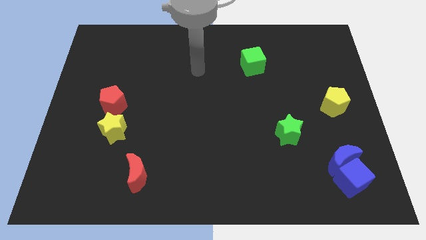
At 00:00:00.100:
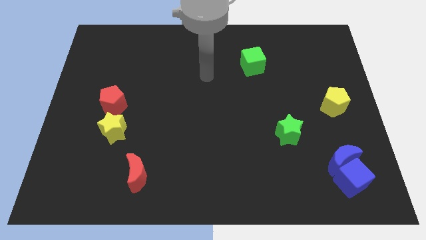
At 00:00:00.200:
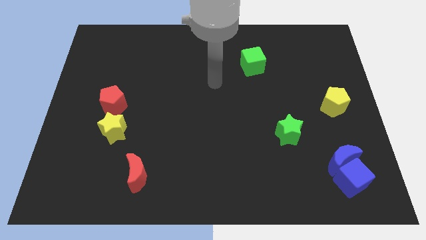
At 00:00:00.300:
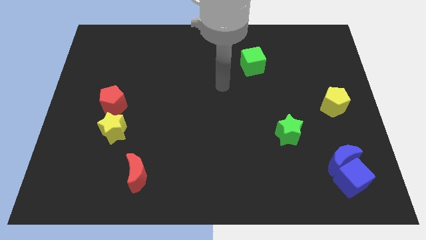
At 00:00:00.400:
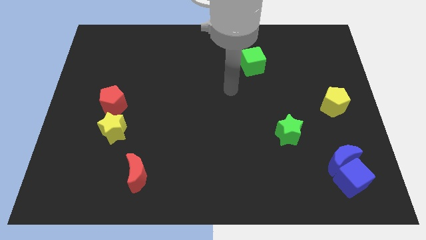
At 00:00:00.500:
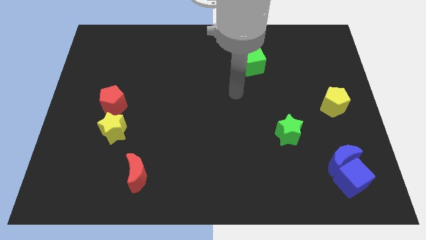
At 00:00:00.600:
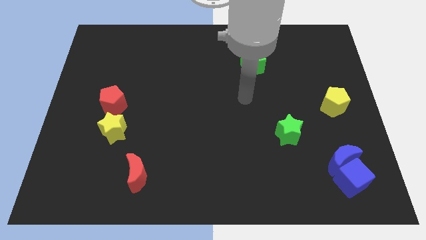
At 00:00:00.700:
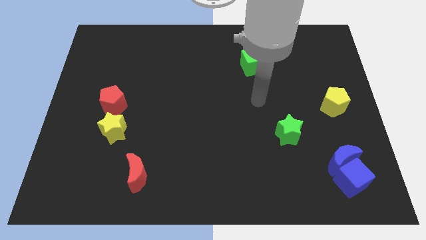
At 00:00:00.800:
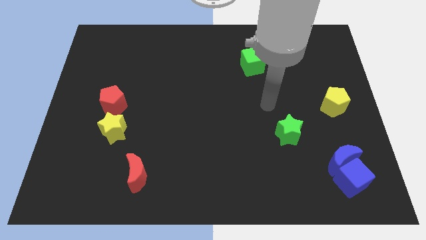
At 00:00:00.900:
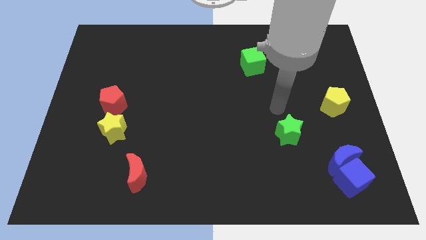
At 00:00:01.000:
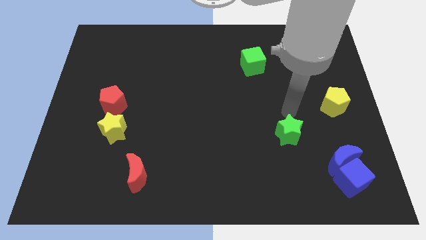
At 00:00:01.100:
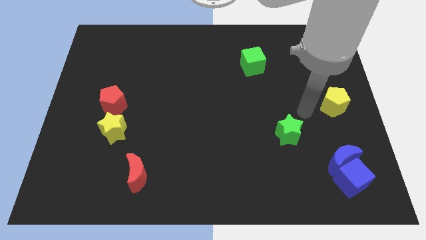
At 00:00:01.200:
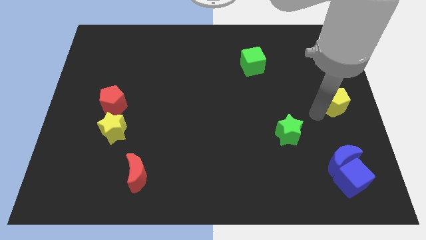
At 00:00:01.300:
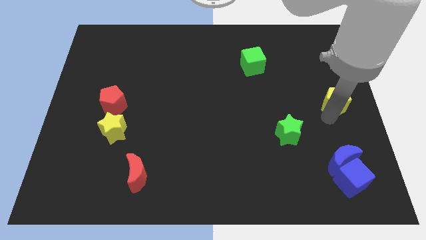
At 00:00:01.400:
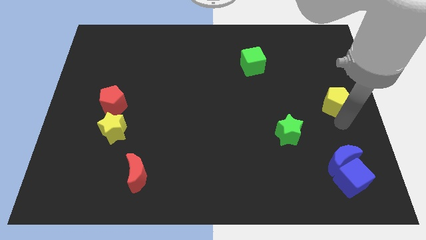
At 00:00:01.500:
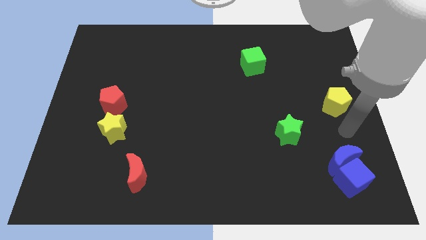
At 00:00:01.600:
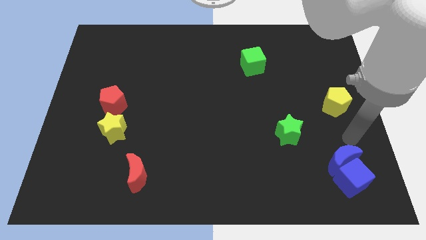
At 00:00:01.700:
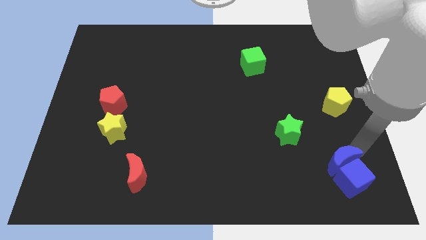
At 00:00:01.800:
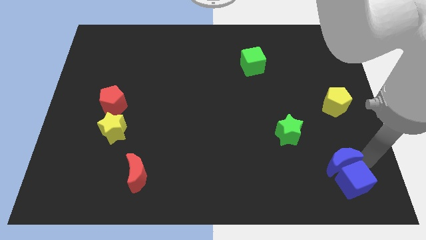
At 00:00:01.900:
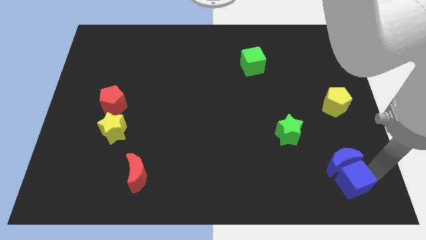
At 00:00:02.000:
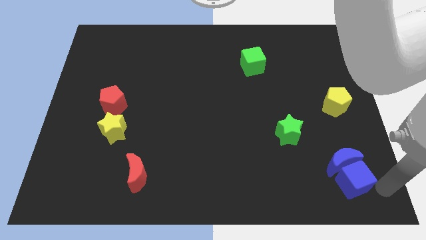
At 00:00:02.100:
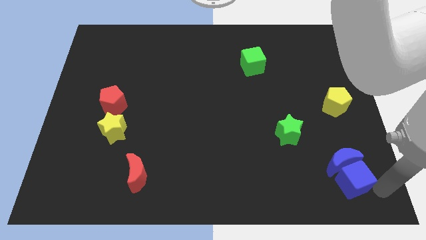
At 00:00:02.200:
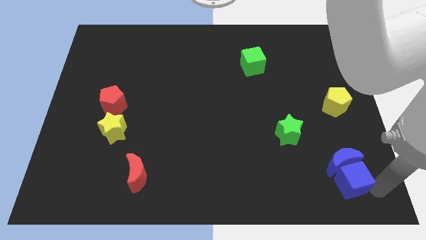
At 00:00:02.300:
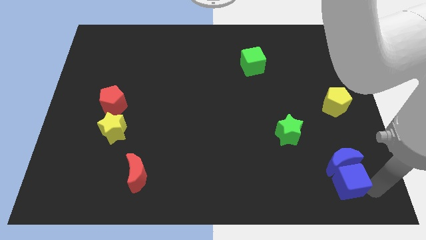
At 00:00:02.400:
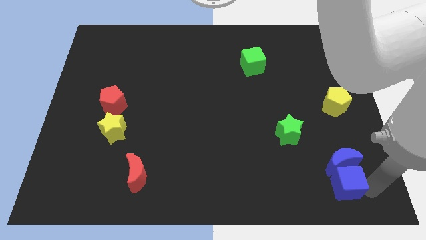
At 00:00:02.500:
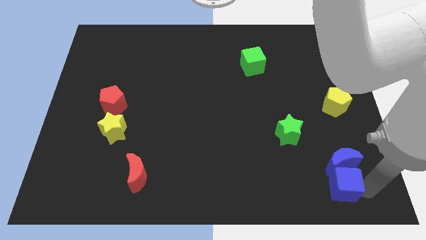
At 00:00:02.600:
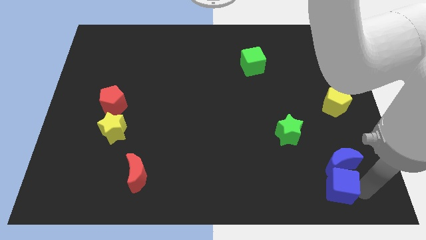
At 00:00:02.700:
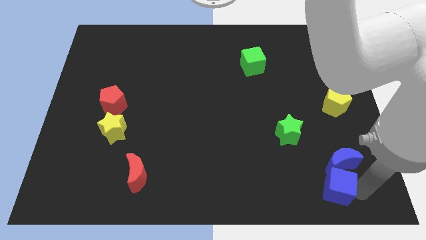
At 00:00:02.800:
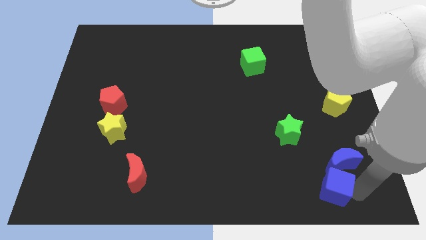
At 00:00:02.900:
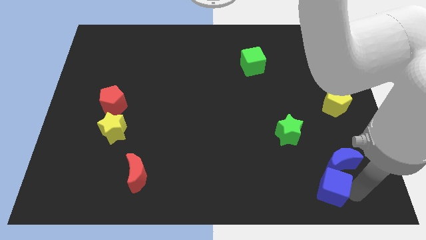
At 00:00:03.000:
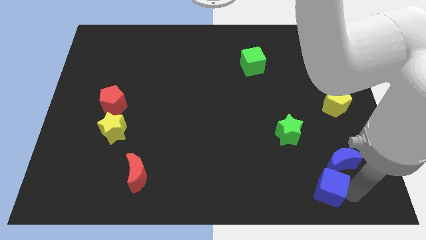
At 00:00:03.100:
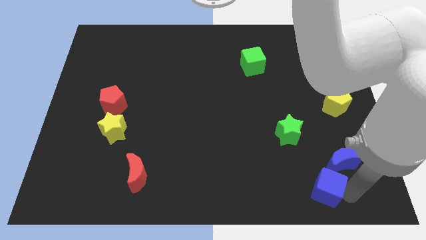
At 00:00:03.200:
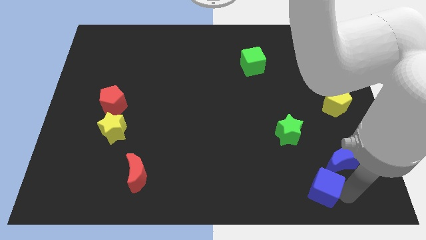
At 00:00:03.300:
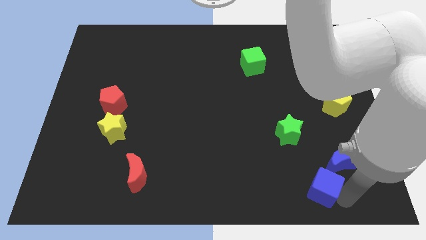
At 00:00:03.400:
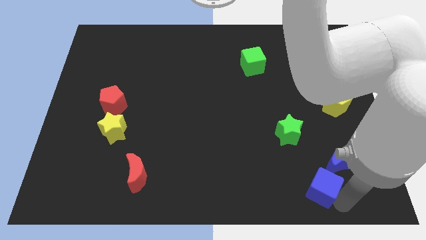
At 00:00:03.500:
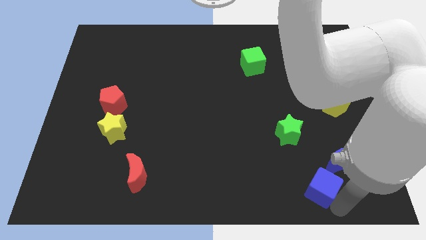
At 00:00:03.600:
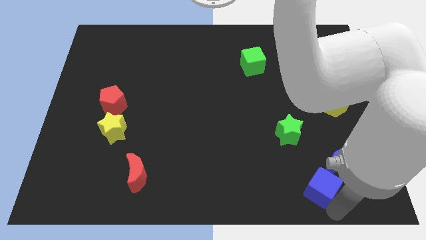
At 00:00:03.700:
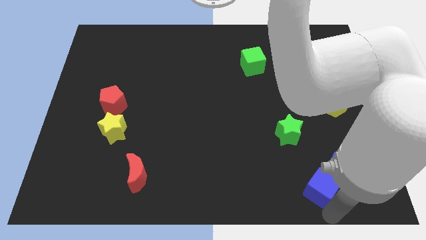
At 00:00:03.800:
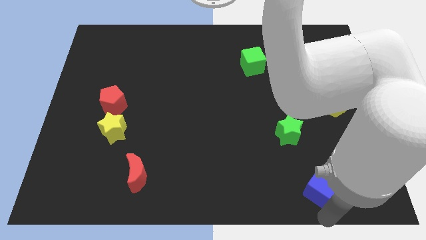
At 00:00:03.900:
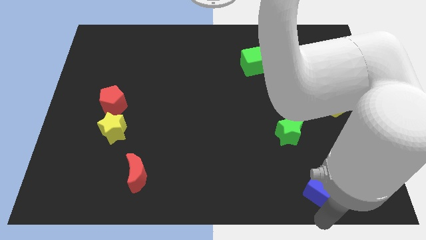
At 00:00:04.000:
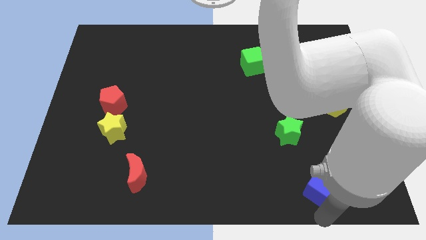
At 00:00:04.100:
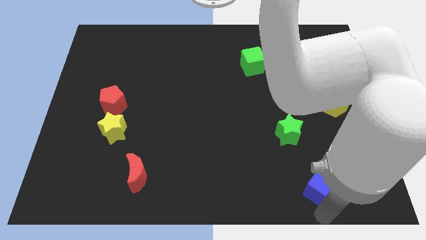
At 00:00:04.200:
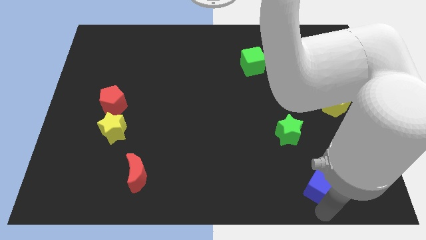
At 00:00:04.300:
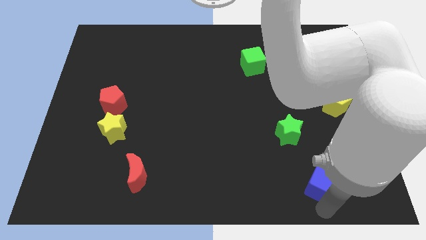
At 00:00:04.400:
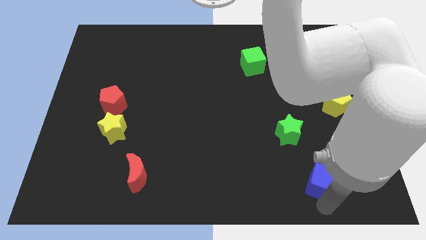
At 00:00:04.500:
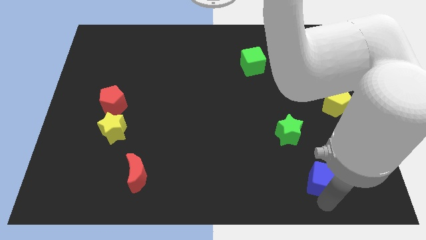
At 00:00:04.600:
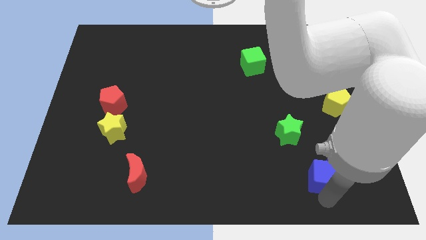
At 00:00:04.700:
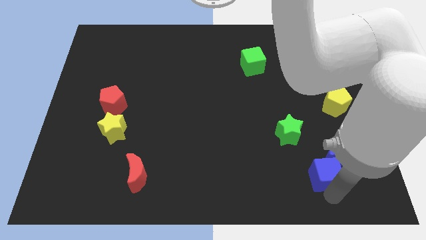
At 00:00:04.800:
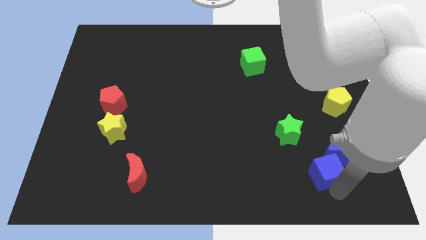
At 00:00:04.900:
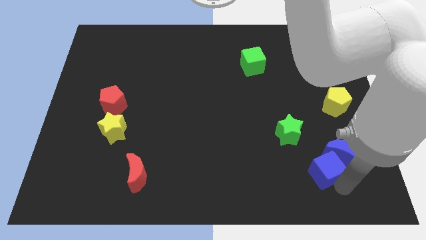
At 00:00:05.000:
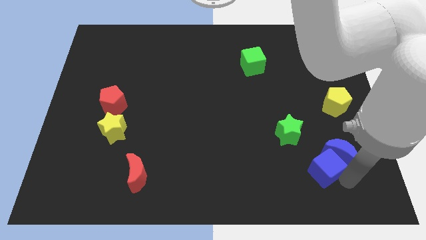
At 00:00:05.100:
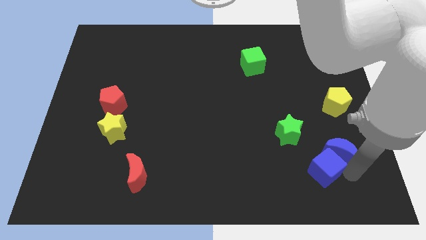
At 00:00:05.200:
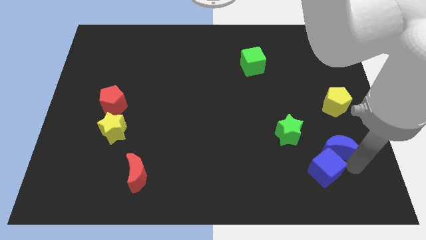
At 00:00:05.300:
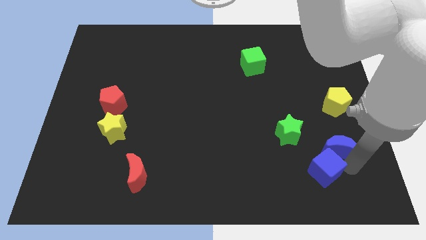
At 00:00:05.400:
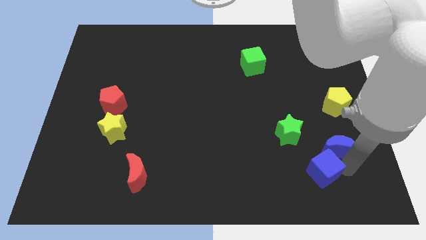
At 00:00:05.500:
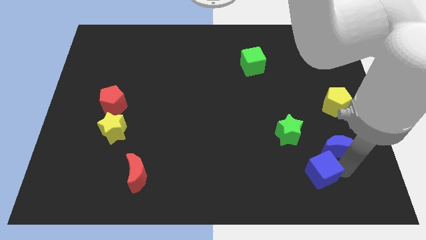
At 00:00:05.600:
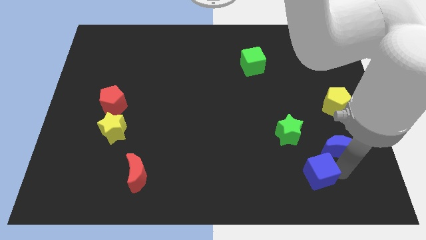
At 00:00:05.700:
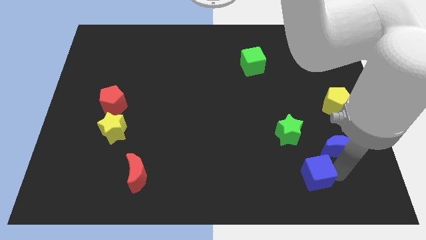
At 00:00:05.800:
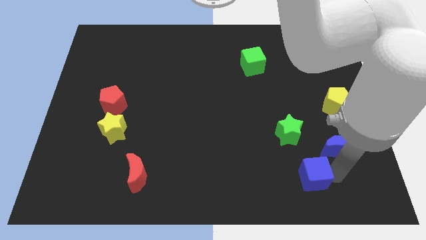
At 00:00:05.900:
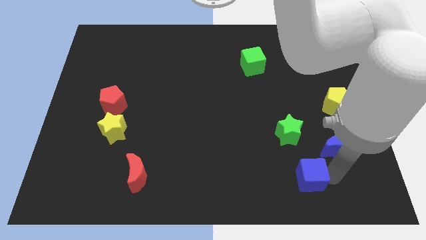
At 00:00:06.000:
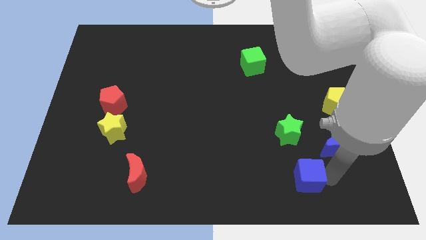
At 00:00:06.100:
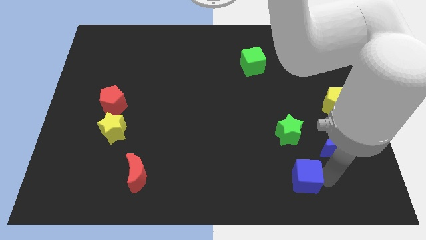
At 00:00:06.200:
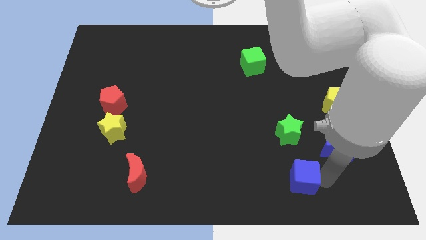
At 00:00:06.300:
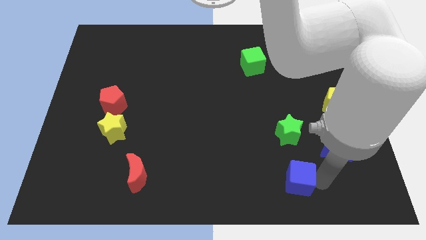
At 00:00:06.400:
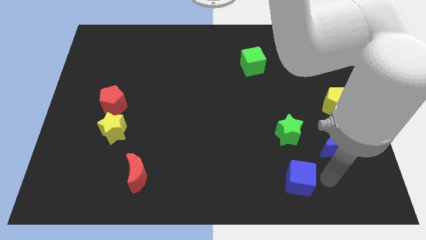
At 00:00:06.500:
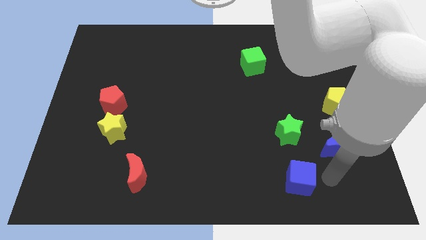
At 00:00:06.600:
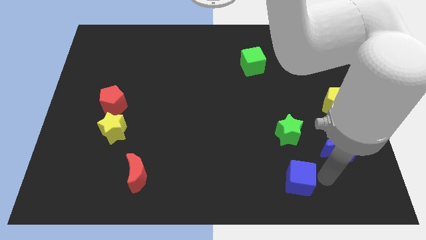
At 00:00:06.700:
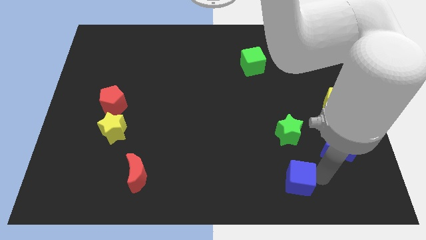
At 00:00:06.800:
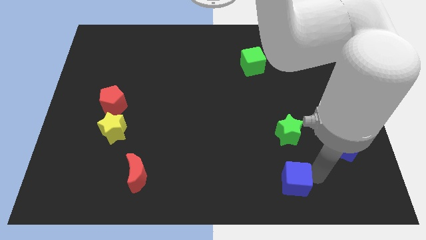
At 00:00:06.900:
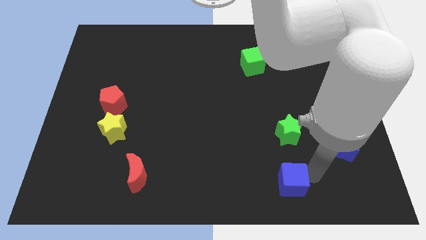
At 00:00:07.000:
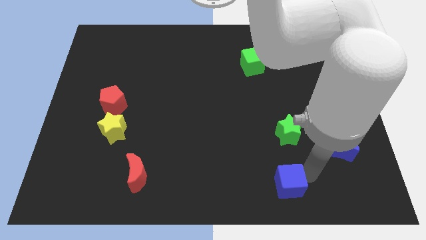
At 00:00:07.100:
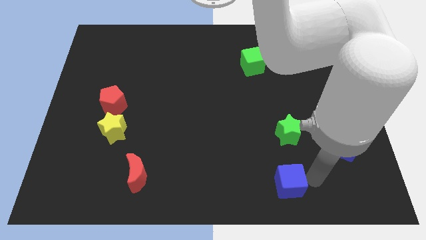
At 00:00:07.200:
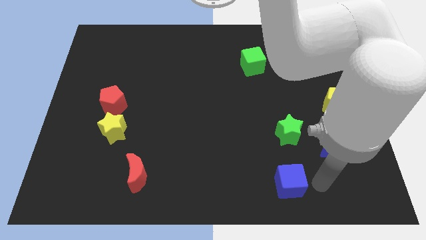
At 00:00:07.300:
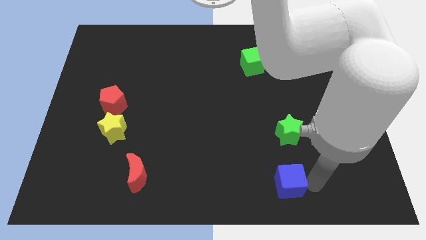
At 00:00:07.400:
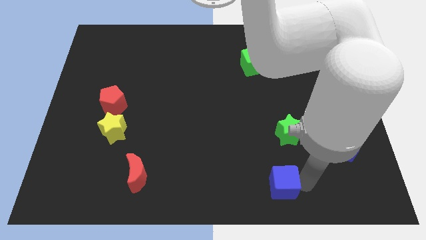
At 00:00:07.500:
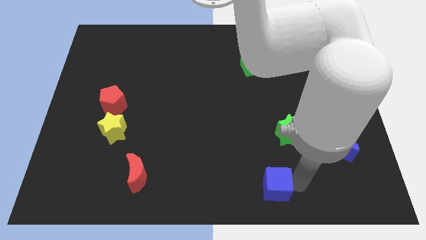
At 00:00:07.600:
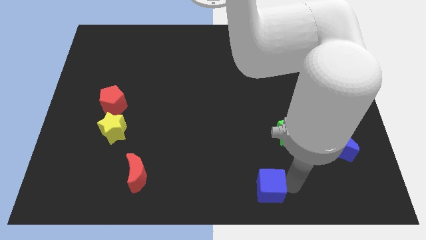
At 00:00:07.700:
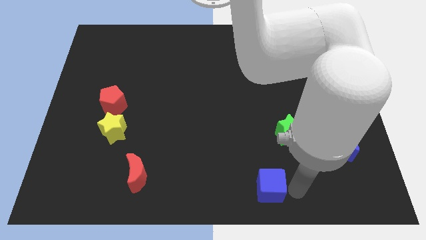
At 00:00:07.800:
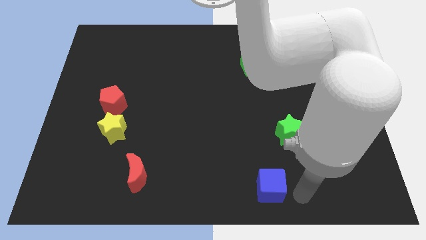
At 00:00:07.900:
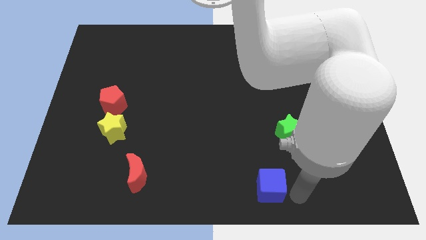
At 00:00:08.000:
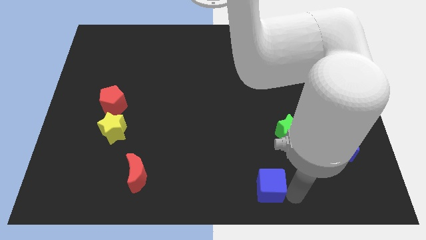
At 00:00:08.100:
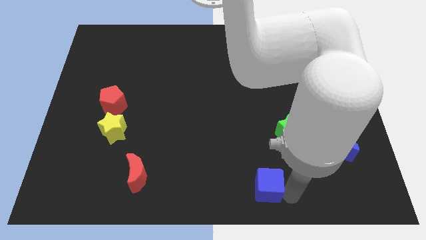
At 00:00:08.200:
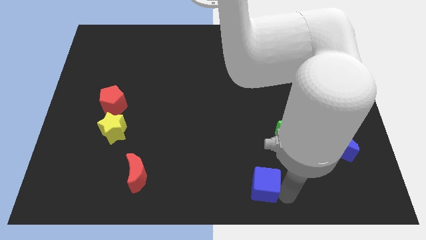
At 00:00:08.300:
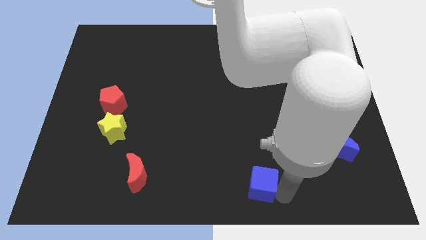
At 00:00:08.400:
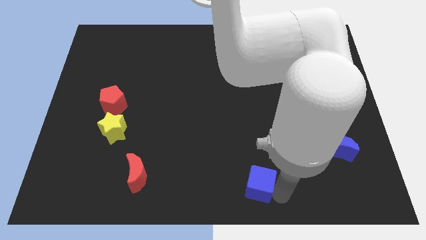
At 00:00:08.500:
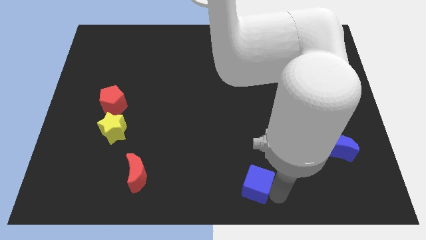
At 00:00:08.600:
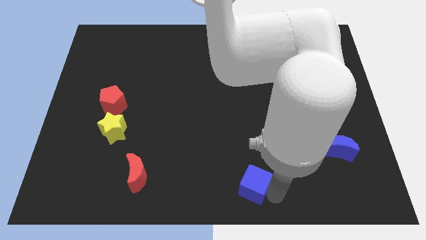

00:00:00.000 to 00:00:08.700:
move the blue cube to the left
